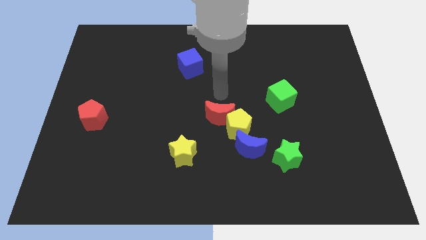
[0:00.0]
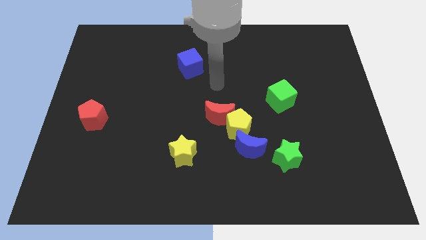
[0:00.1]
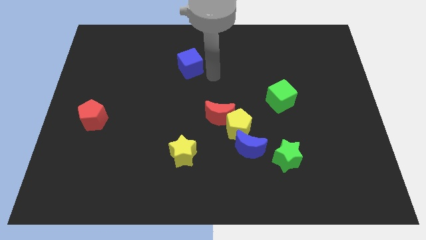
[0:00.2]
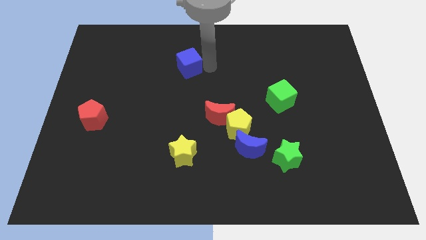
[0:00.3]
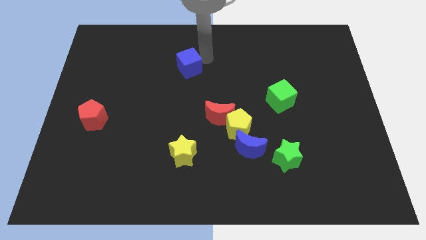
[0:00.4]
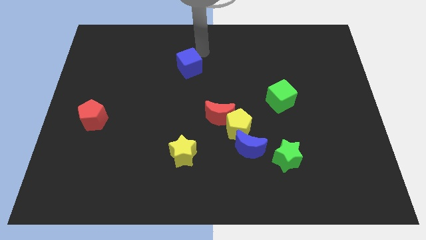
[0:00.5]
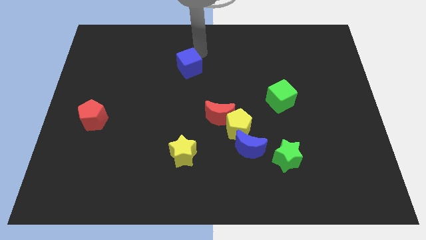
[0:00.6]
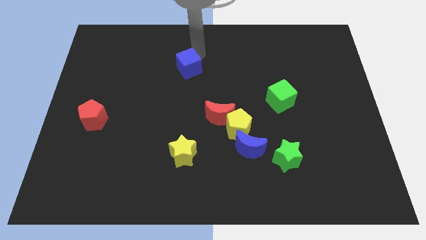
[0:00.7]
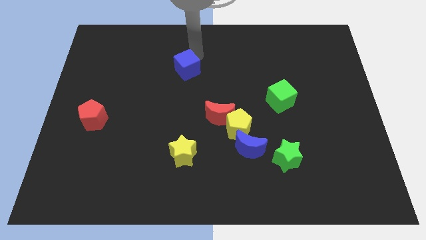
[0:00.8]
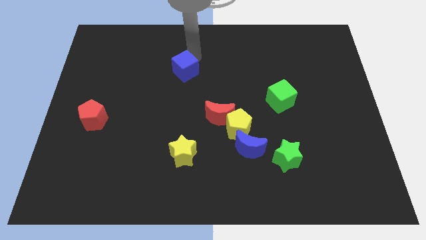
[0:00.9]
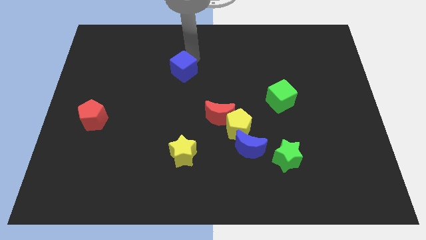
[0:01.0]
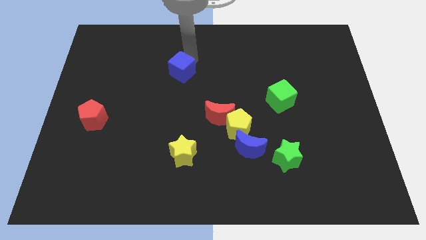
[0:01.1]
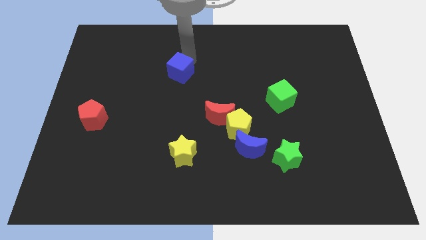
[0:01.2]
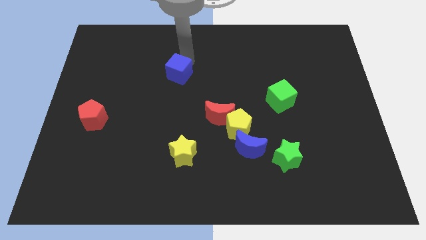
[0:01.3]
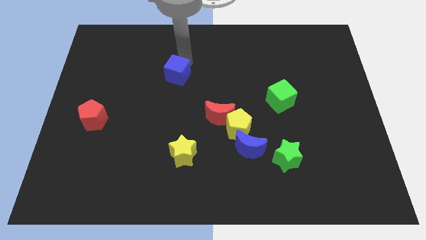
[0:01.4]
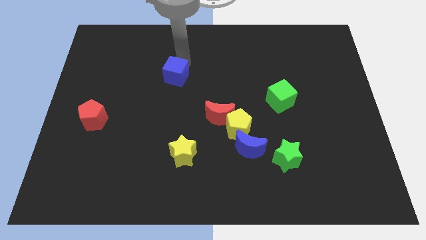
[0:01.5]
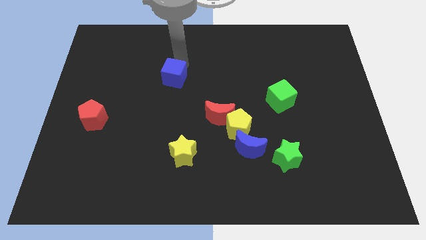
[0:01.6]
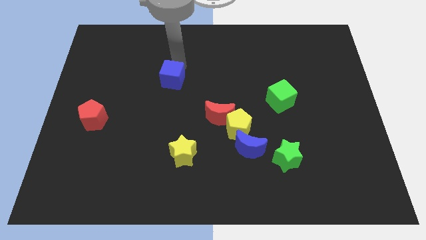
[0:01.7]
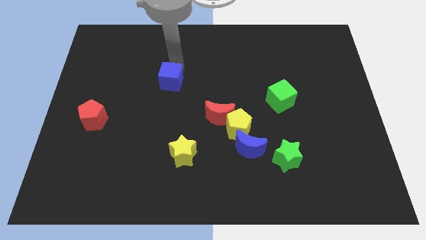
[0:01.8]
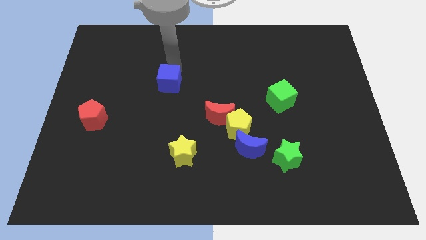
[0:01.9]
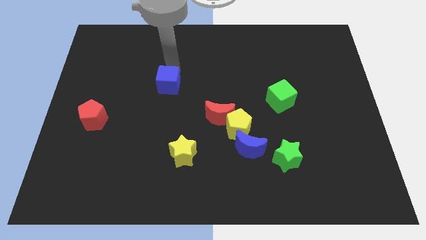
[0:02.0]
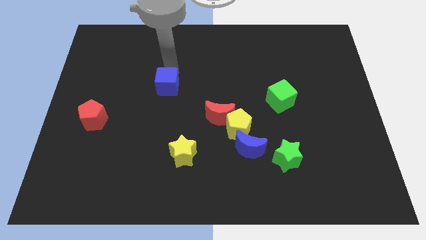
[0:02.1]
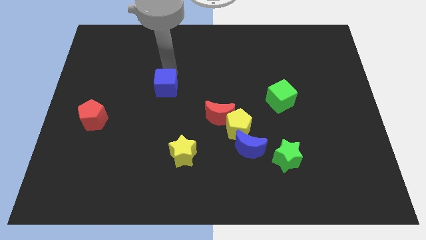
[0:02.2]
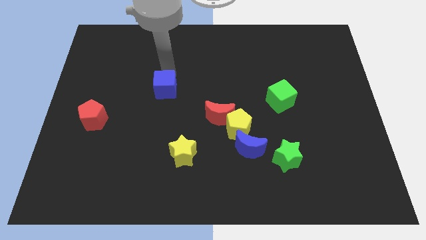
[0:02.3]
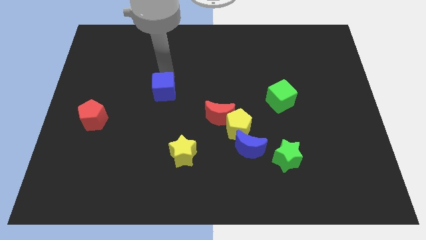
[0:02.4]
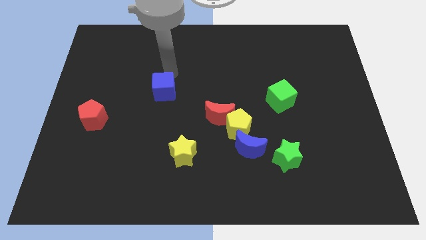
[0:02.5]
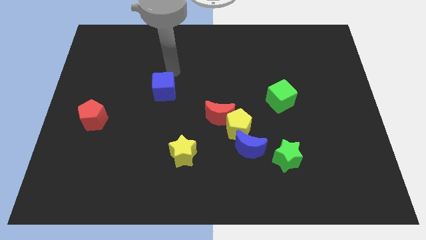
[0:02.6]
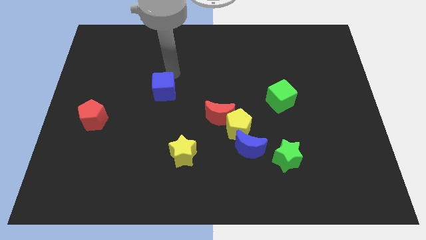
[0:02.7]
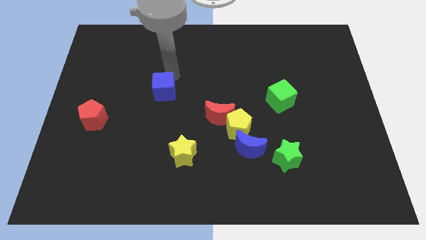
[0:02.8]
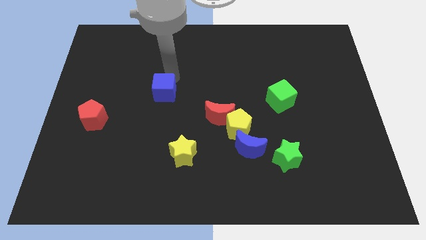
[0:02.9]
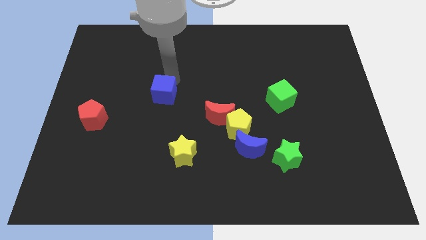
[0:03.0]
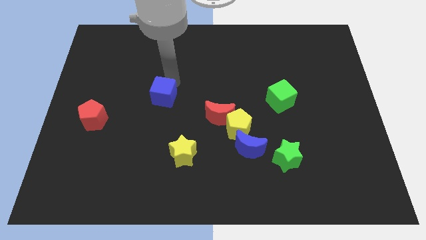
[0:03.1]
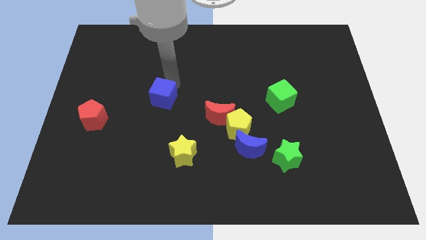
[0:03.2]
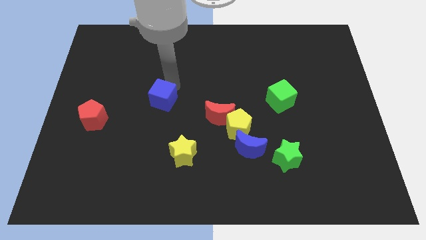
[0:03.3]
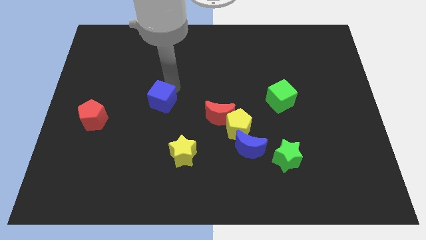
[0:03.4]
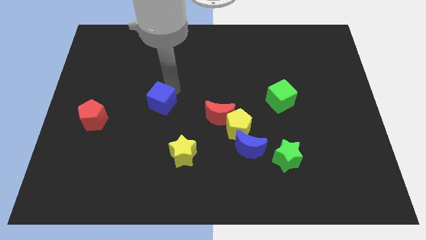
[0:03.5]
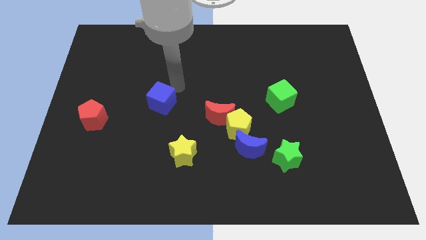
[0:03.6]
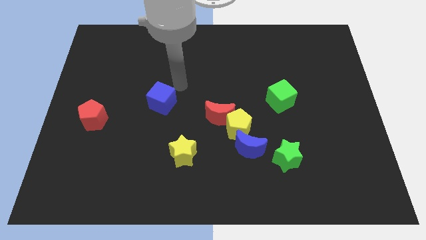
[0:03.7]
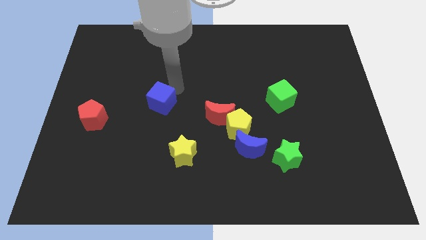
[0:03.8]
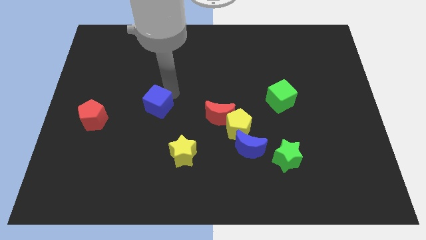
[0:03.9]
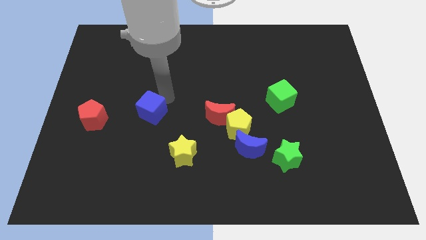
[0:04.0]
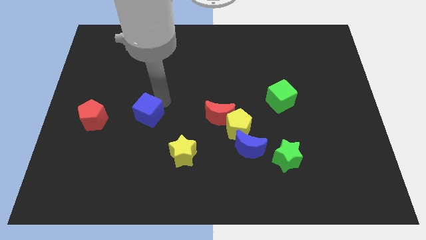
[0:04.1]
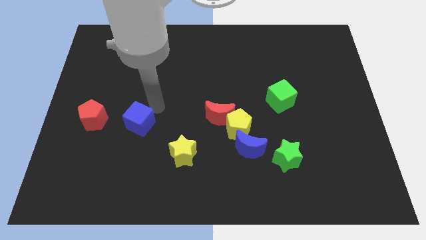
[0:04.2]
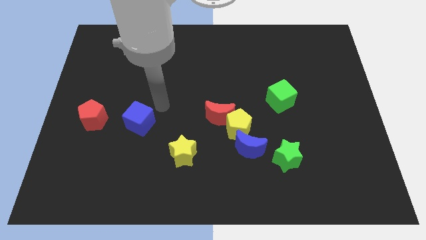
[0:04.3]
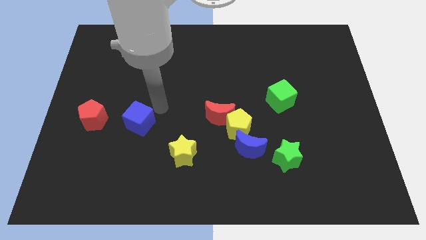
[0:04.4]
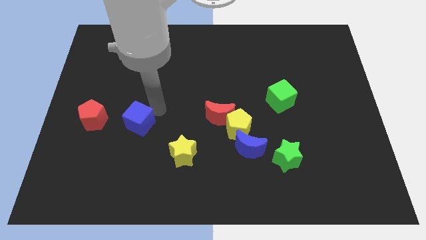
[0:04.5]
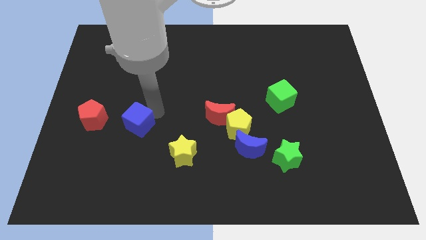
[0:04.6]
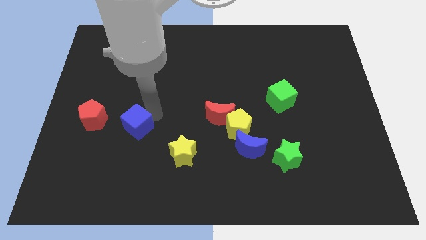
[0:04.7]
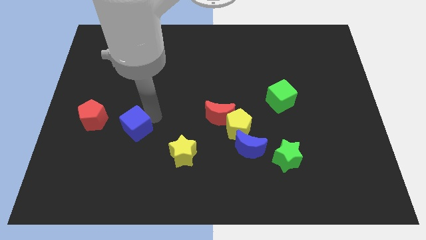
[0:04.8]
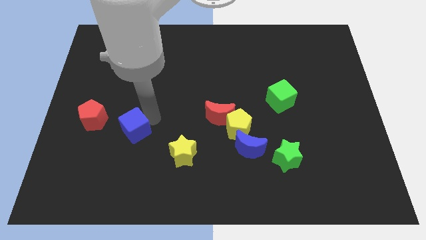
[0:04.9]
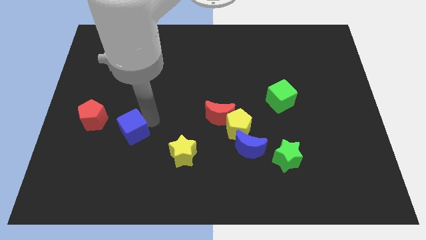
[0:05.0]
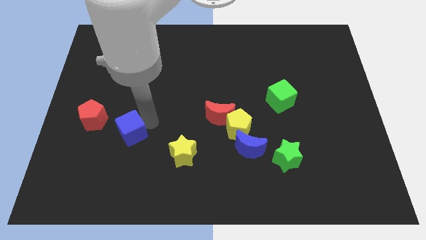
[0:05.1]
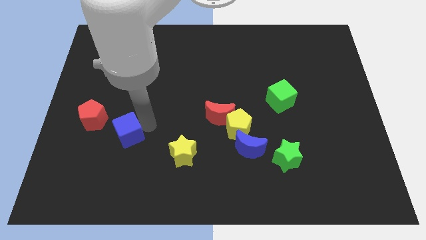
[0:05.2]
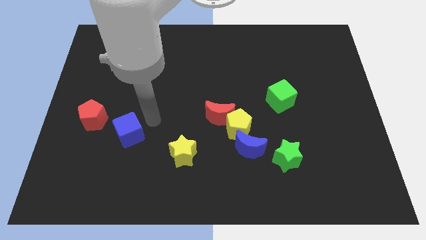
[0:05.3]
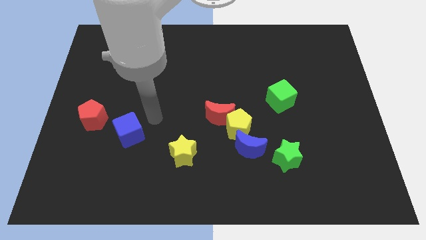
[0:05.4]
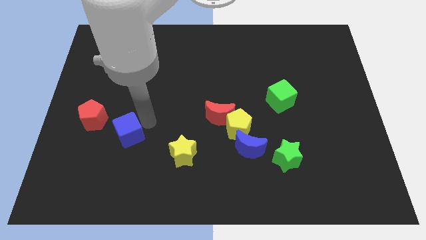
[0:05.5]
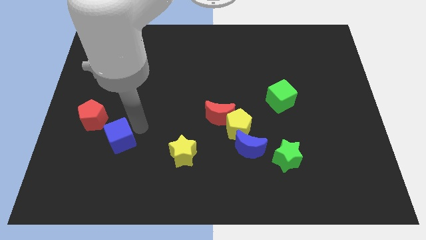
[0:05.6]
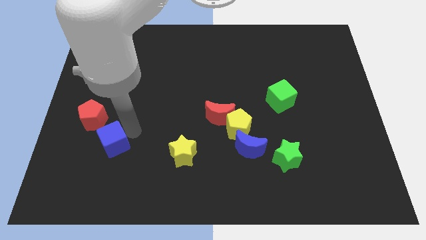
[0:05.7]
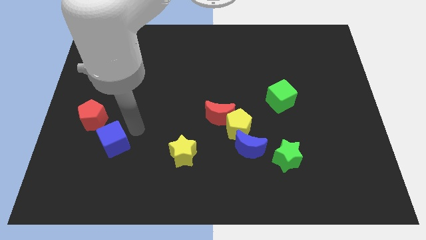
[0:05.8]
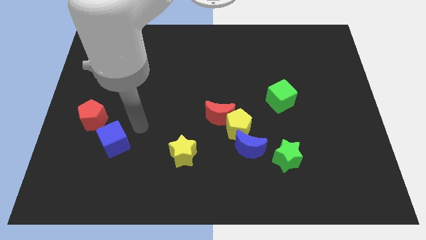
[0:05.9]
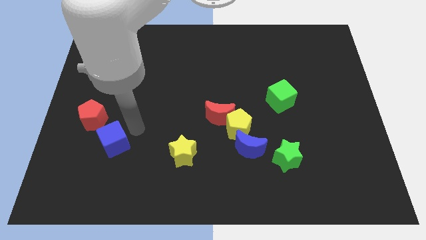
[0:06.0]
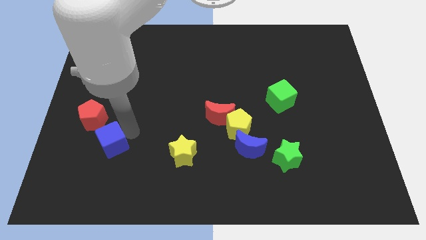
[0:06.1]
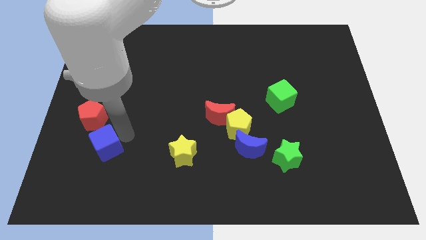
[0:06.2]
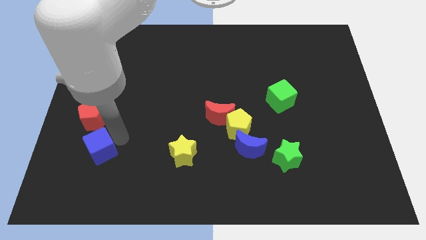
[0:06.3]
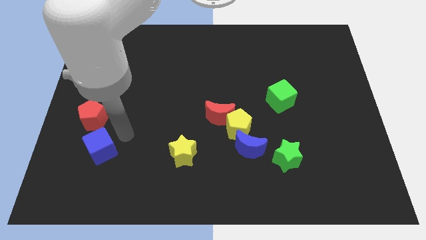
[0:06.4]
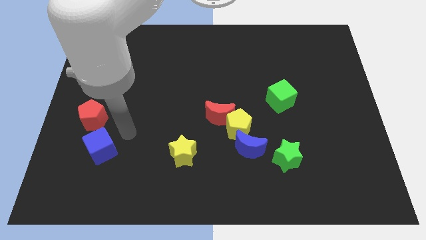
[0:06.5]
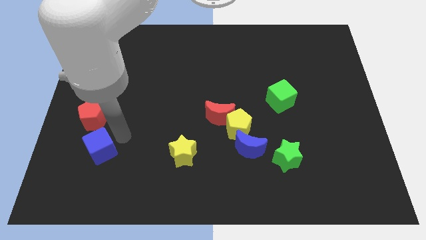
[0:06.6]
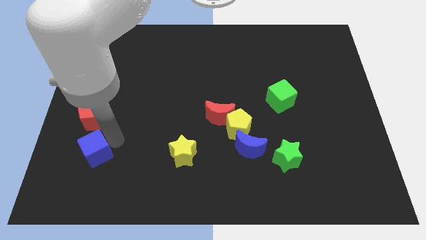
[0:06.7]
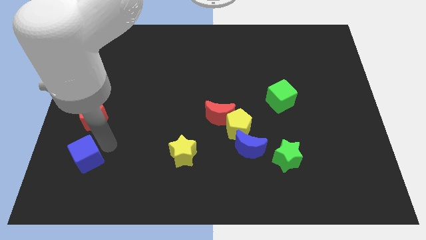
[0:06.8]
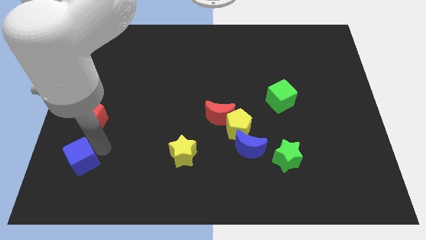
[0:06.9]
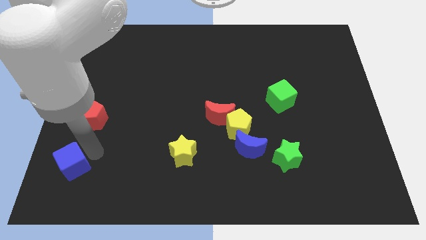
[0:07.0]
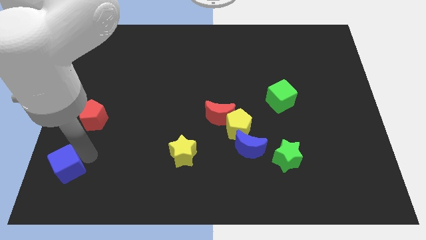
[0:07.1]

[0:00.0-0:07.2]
slide the blue cube to the bottom left

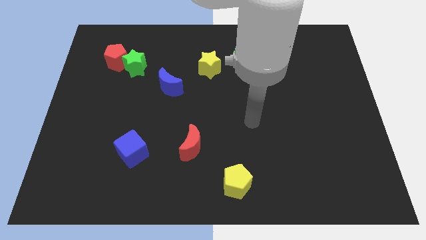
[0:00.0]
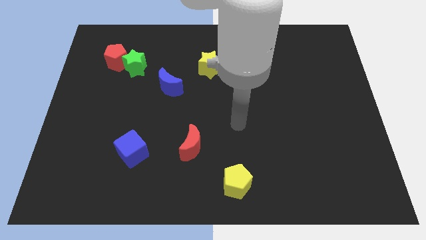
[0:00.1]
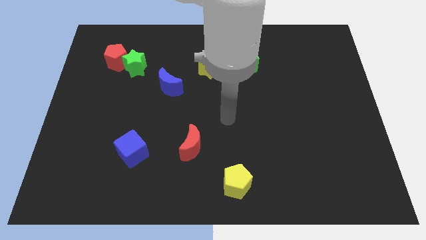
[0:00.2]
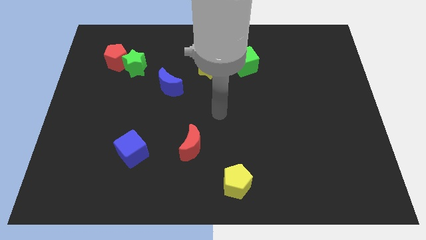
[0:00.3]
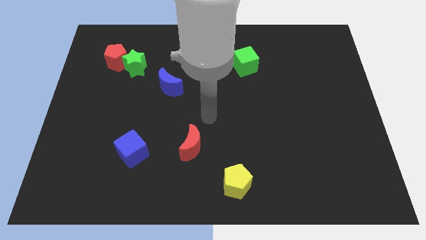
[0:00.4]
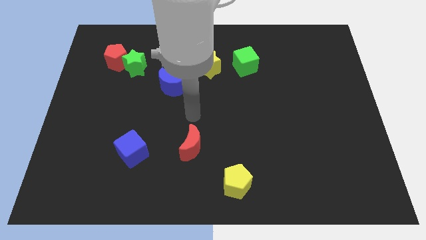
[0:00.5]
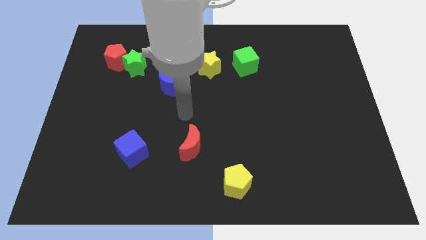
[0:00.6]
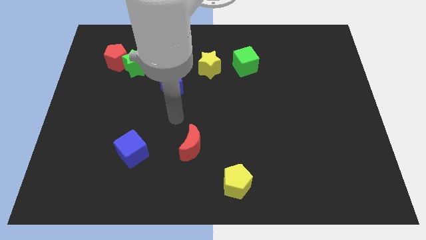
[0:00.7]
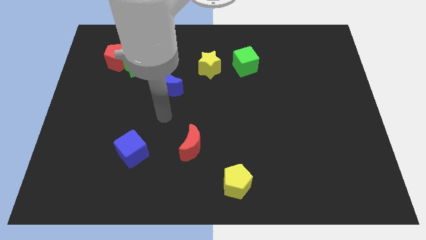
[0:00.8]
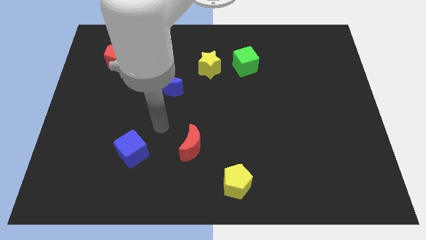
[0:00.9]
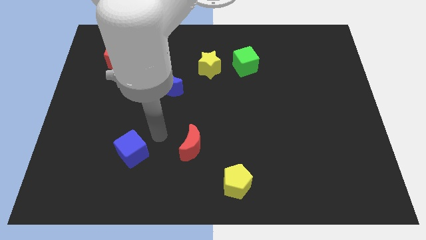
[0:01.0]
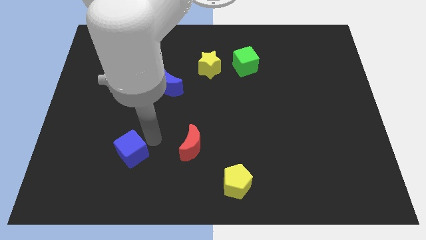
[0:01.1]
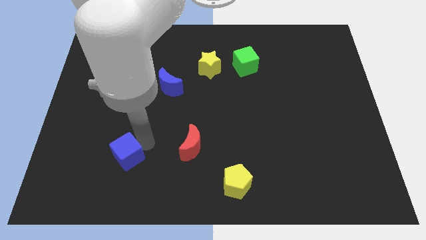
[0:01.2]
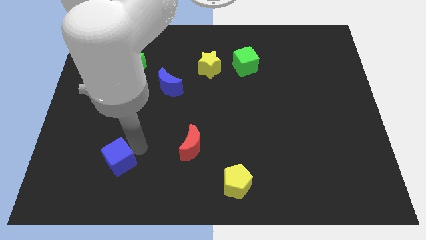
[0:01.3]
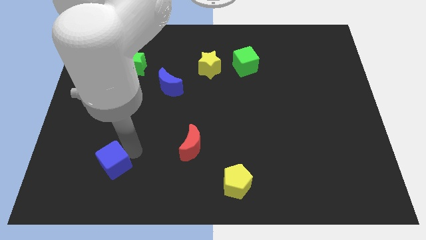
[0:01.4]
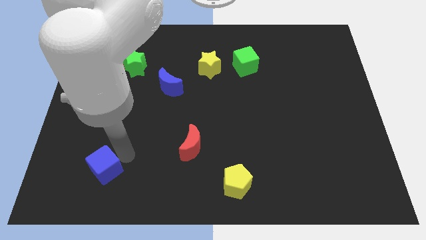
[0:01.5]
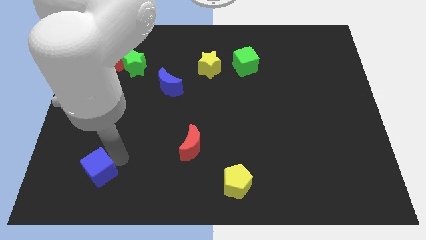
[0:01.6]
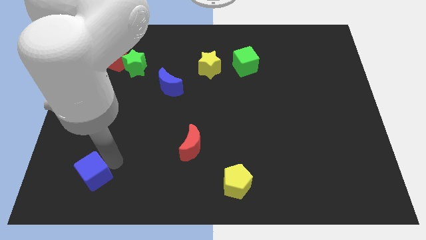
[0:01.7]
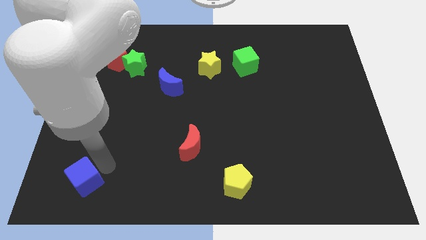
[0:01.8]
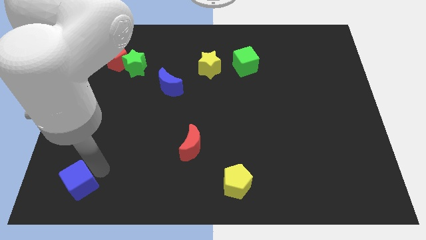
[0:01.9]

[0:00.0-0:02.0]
move the blue cube to the bottom left of the board
